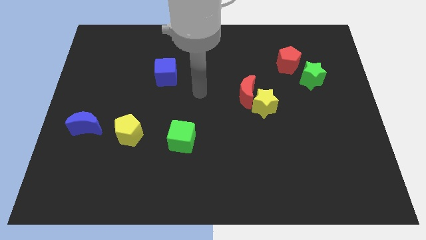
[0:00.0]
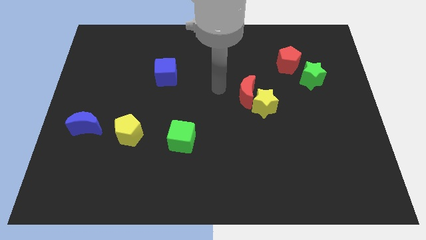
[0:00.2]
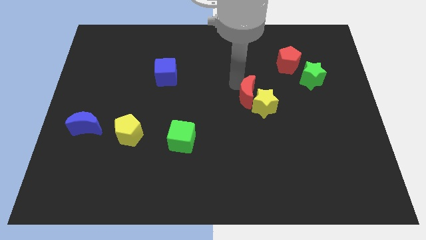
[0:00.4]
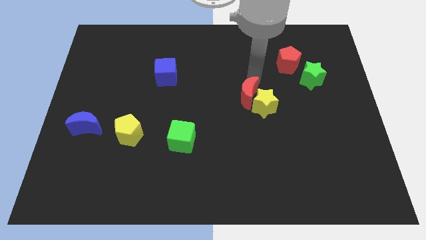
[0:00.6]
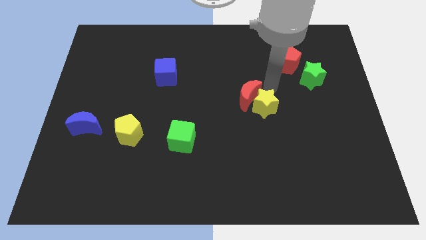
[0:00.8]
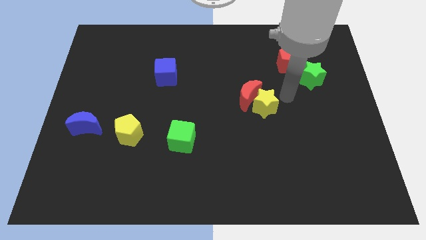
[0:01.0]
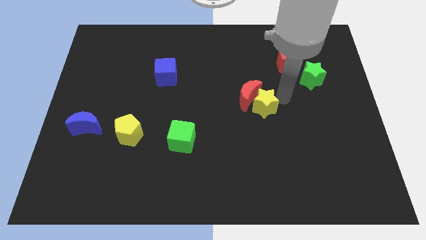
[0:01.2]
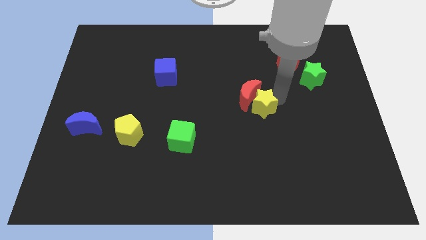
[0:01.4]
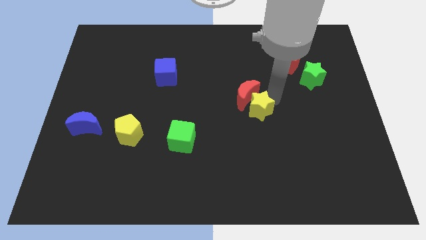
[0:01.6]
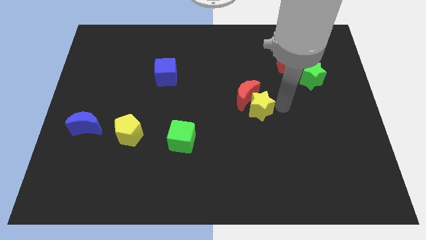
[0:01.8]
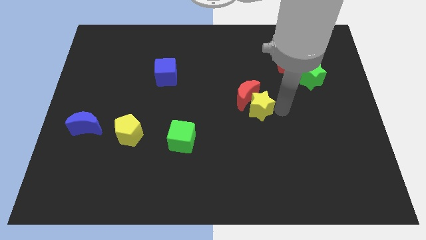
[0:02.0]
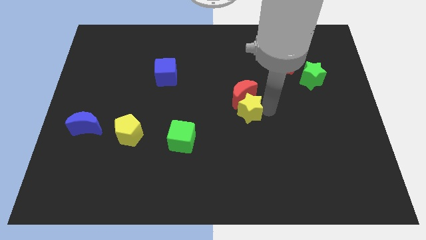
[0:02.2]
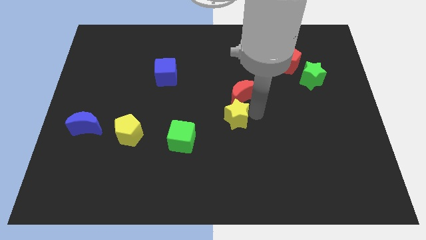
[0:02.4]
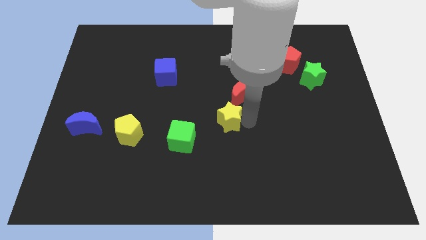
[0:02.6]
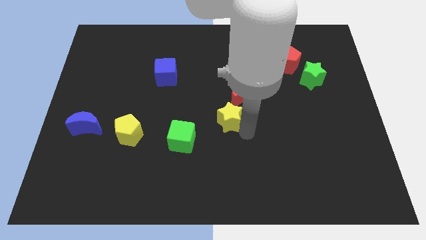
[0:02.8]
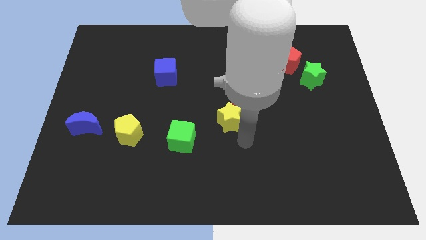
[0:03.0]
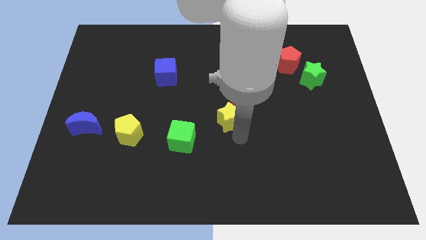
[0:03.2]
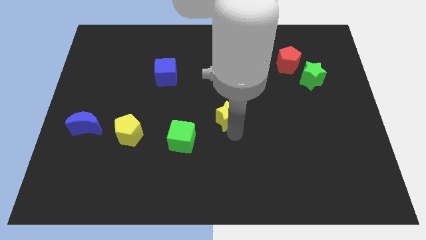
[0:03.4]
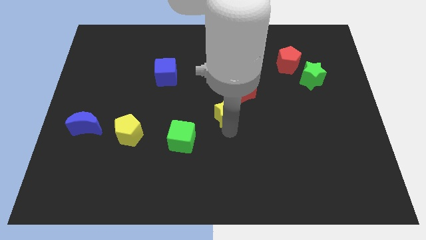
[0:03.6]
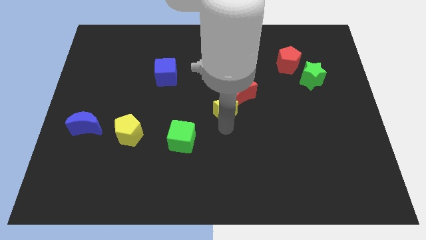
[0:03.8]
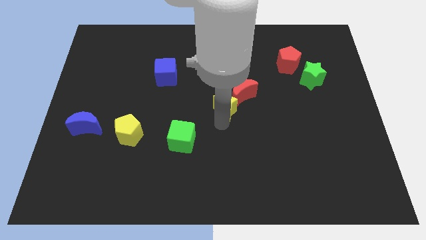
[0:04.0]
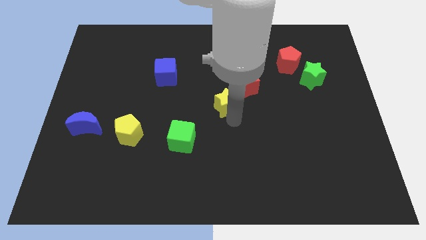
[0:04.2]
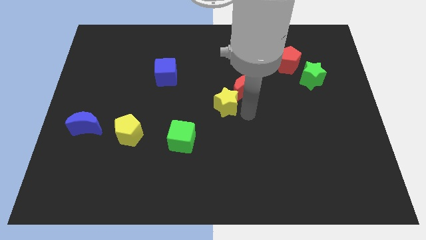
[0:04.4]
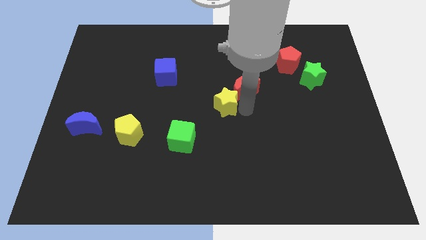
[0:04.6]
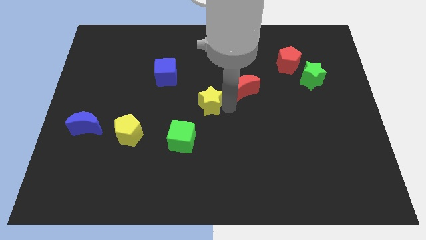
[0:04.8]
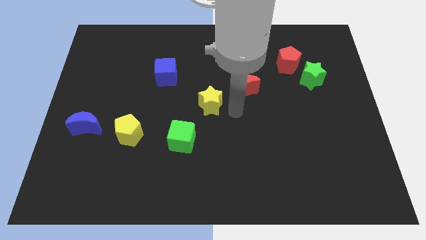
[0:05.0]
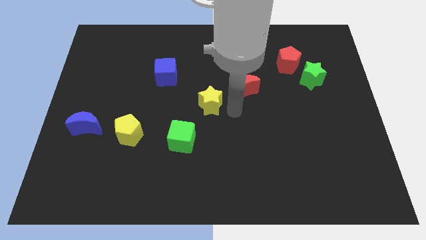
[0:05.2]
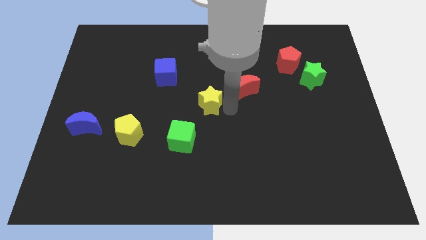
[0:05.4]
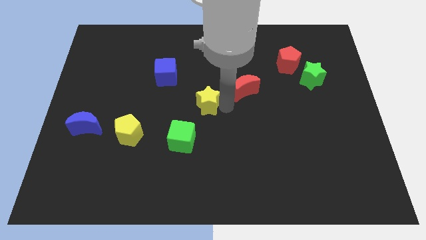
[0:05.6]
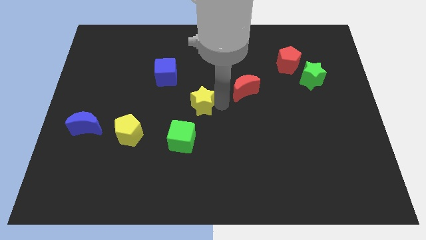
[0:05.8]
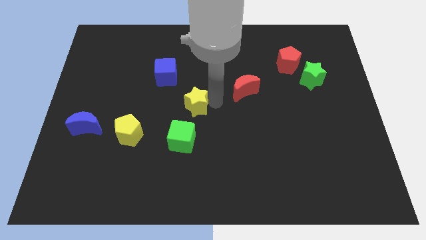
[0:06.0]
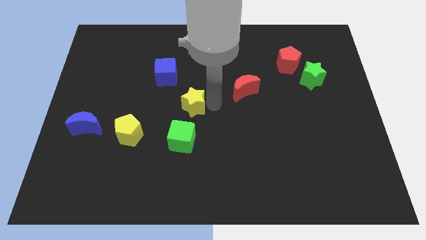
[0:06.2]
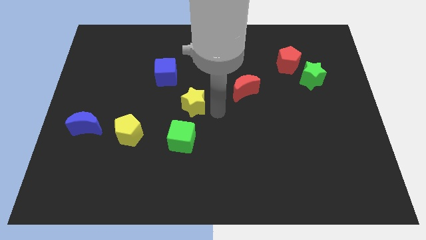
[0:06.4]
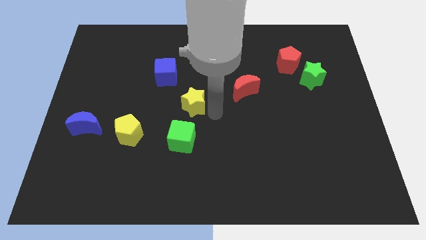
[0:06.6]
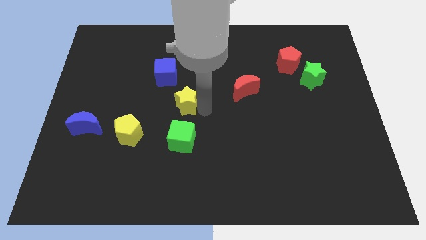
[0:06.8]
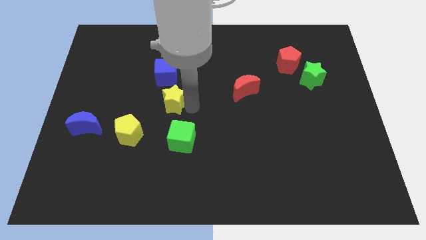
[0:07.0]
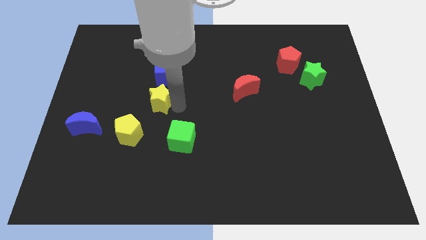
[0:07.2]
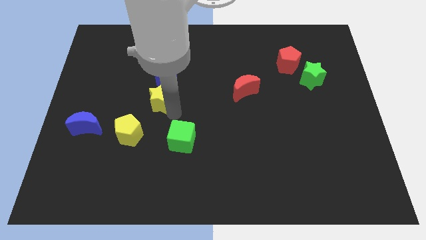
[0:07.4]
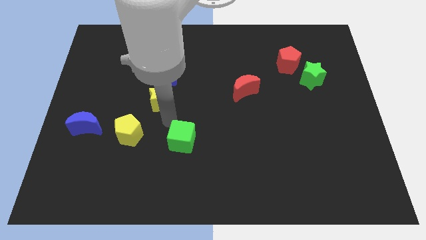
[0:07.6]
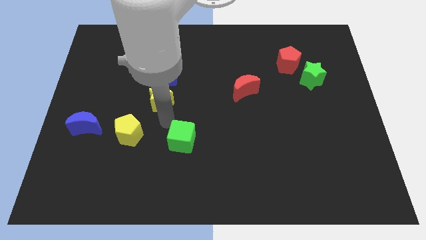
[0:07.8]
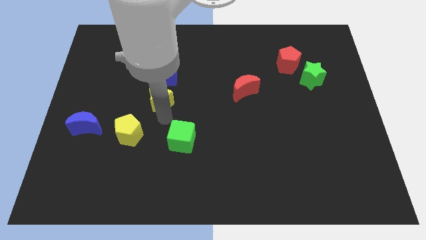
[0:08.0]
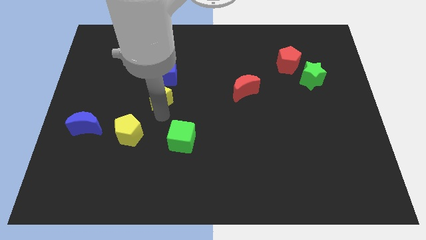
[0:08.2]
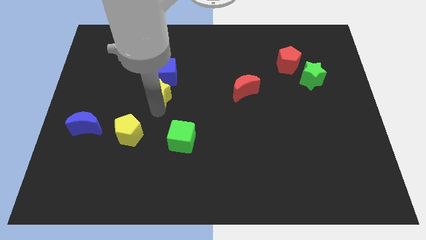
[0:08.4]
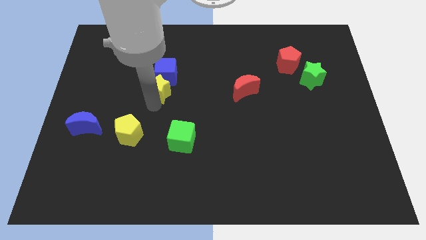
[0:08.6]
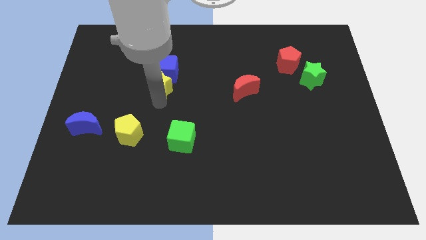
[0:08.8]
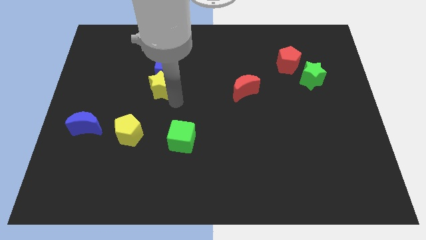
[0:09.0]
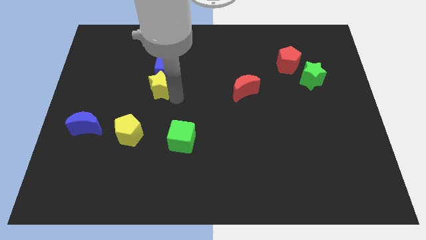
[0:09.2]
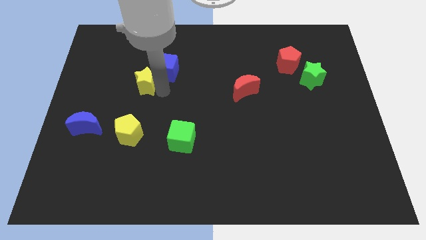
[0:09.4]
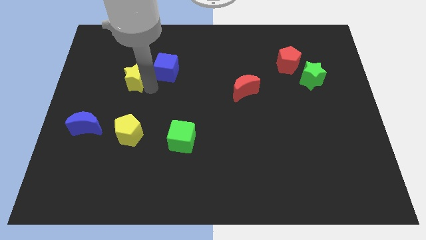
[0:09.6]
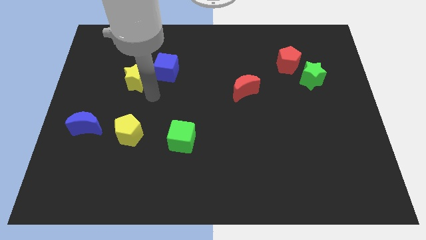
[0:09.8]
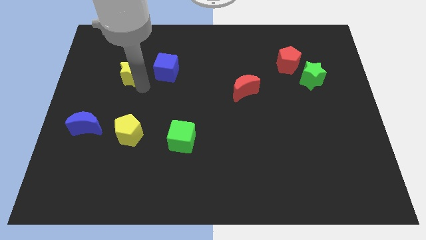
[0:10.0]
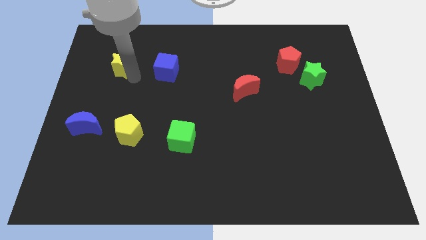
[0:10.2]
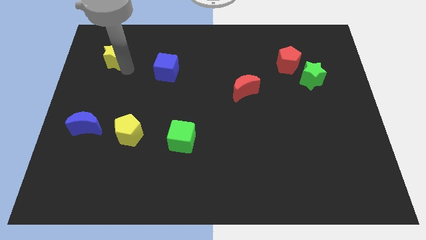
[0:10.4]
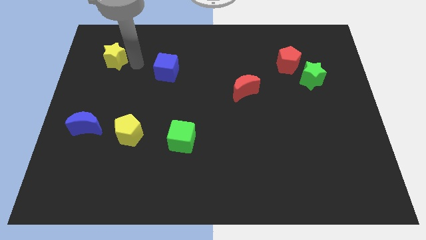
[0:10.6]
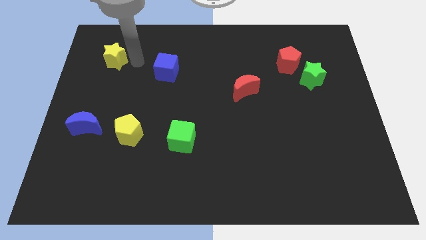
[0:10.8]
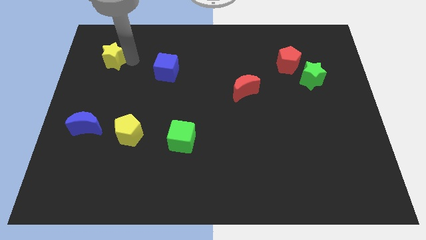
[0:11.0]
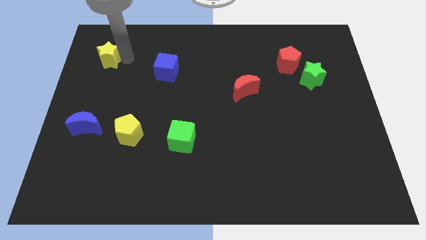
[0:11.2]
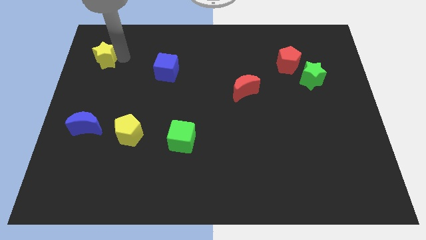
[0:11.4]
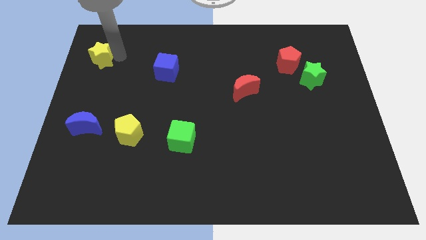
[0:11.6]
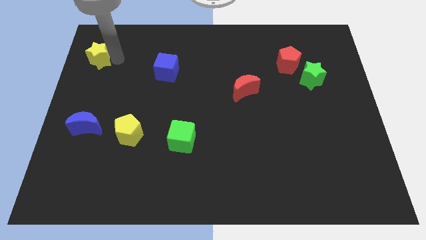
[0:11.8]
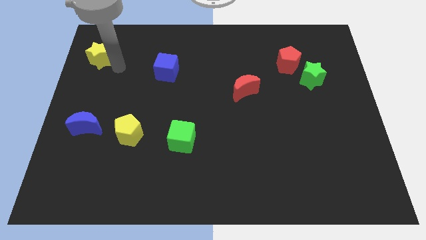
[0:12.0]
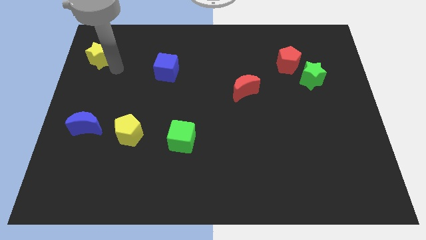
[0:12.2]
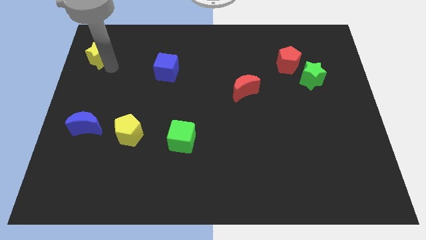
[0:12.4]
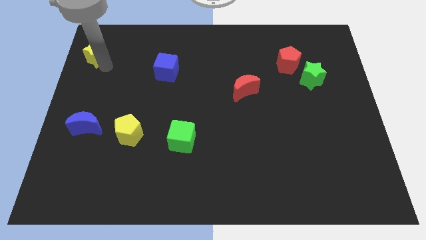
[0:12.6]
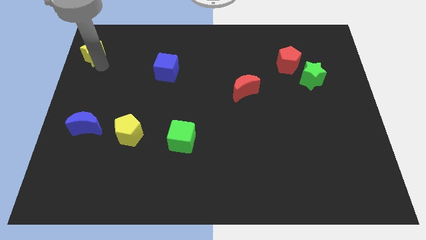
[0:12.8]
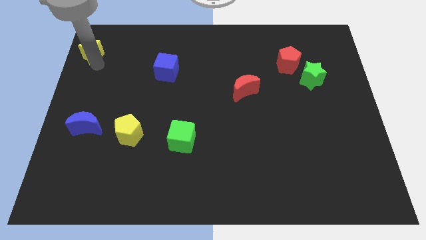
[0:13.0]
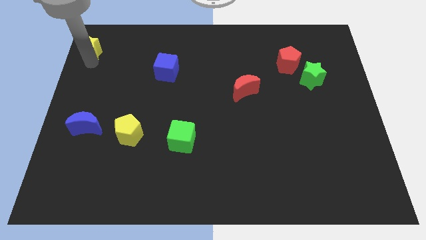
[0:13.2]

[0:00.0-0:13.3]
move the yellow star to the top left
